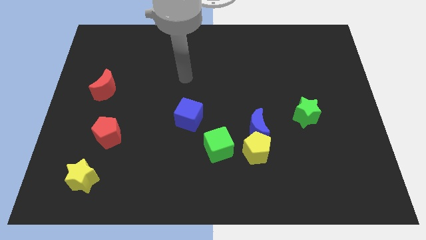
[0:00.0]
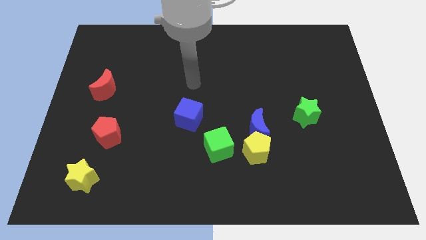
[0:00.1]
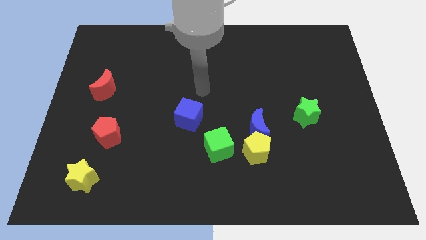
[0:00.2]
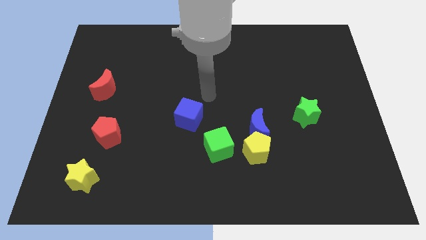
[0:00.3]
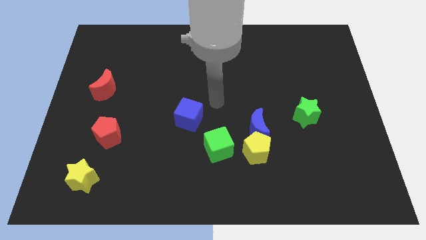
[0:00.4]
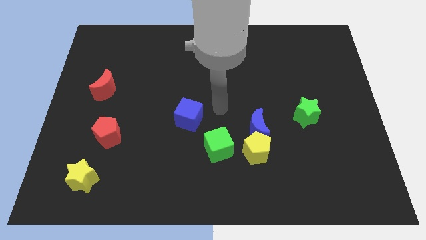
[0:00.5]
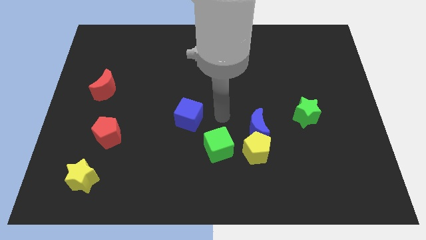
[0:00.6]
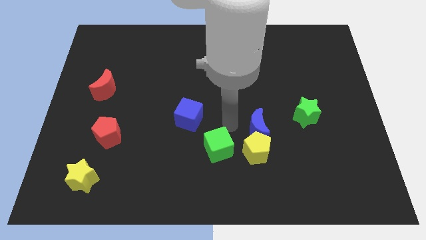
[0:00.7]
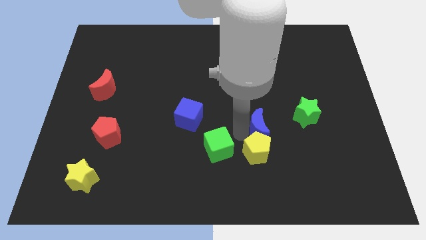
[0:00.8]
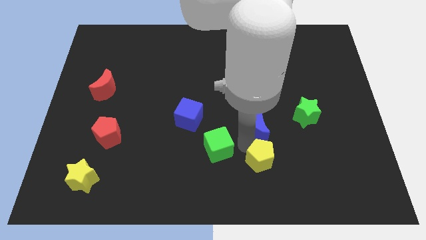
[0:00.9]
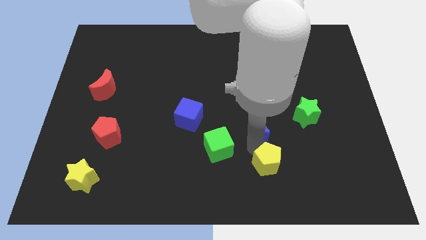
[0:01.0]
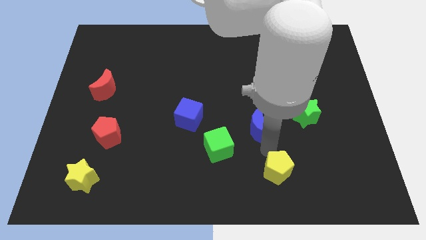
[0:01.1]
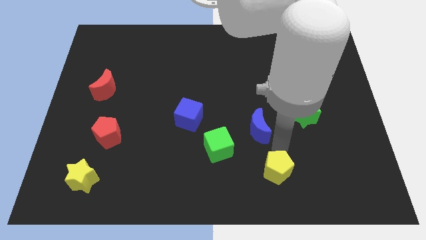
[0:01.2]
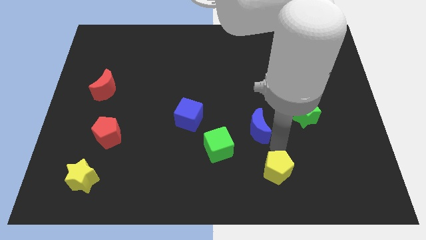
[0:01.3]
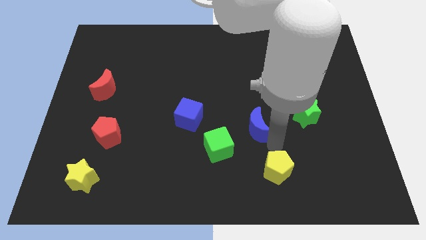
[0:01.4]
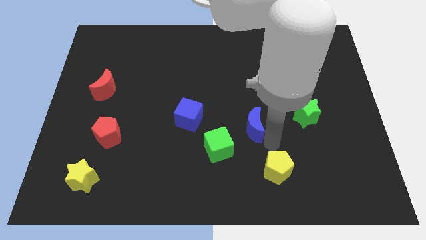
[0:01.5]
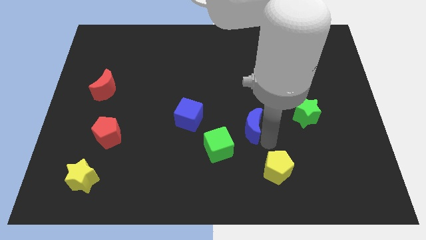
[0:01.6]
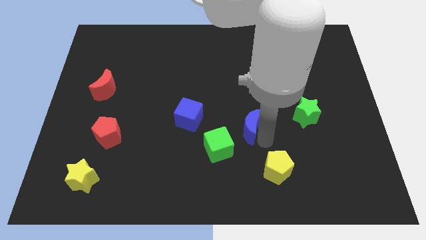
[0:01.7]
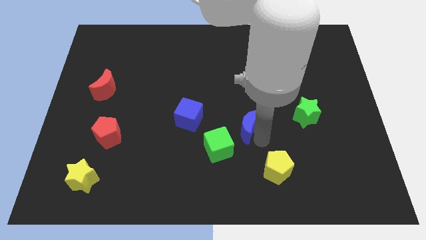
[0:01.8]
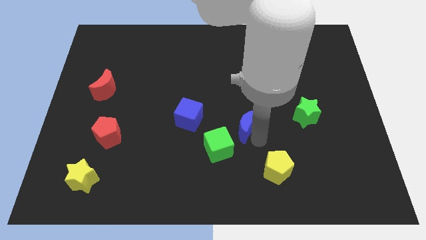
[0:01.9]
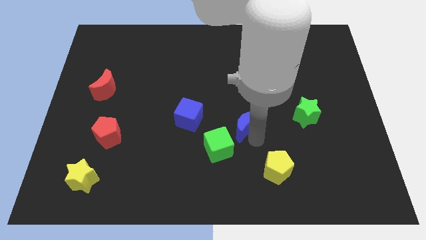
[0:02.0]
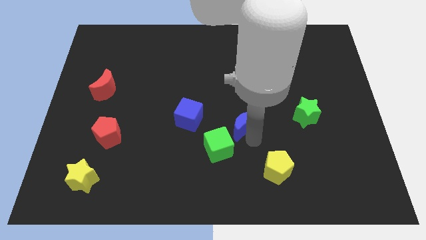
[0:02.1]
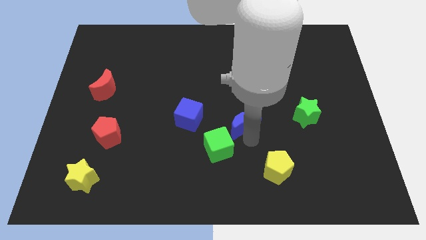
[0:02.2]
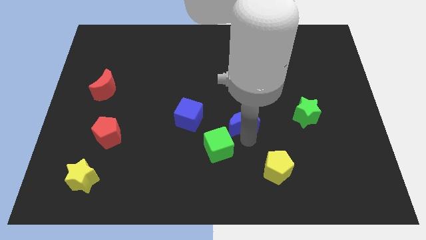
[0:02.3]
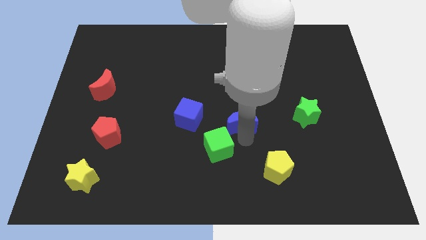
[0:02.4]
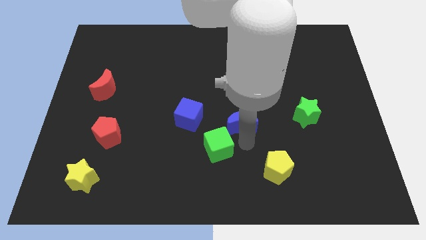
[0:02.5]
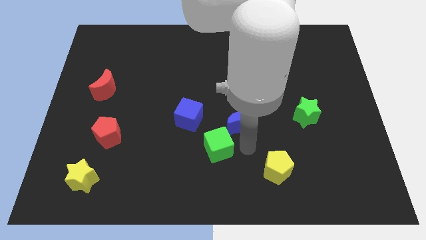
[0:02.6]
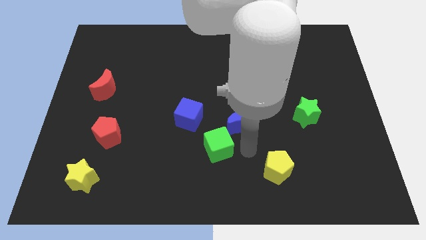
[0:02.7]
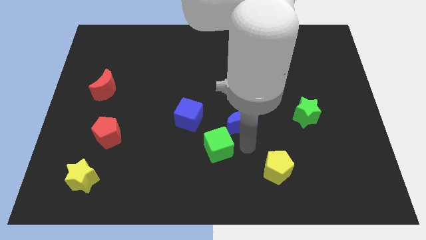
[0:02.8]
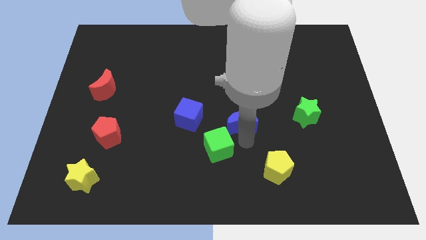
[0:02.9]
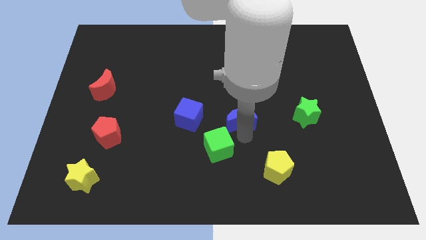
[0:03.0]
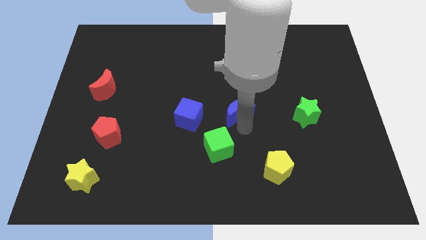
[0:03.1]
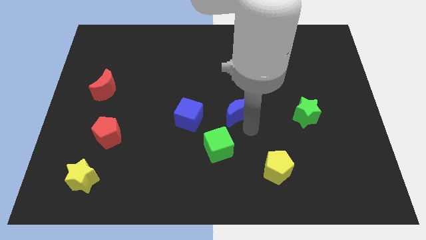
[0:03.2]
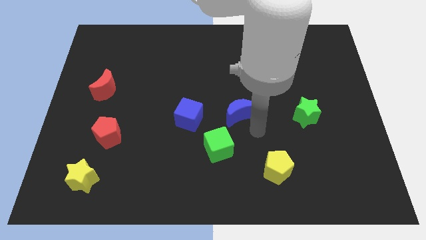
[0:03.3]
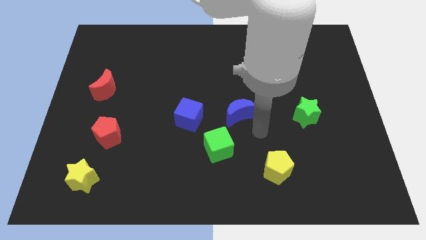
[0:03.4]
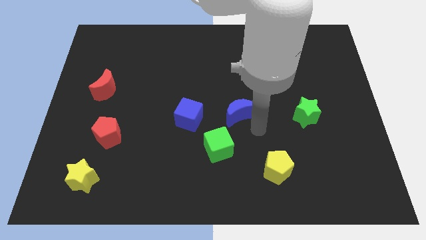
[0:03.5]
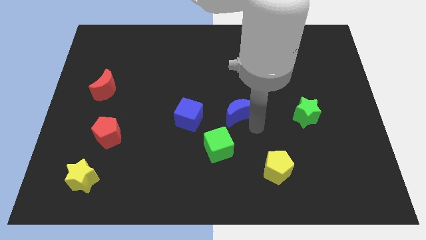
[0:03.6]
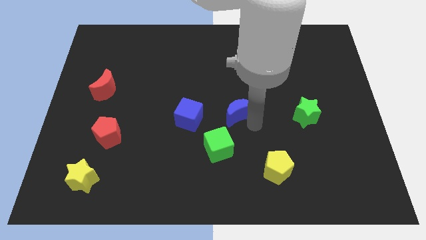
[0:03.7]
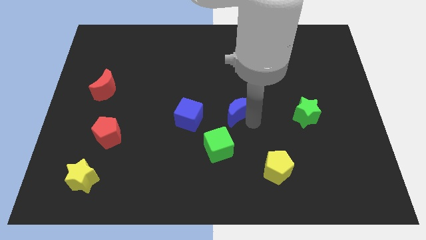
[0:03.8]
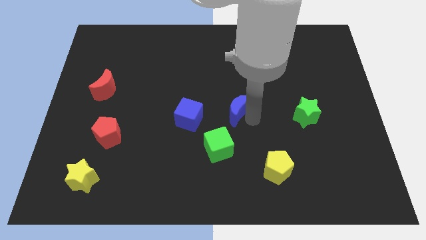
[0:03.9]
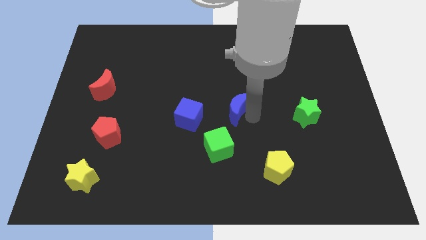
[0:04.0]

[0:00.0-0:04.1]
slide the blue moon upwards and then to the left a bit

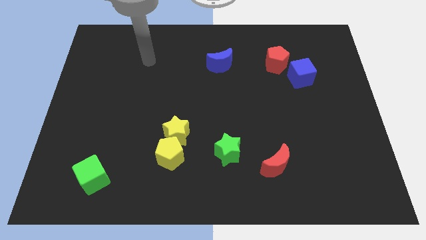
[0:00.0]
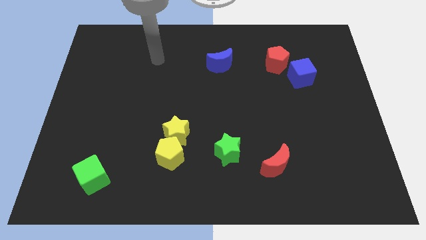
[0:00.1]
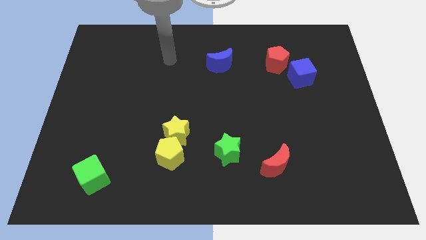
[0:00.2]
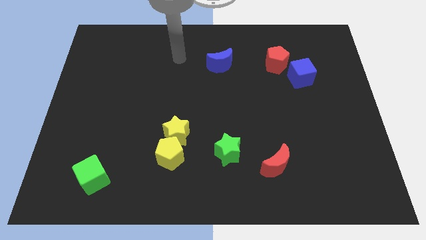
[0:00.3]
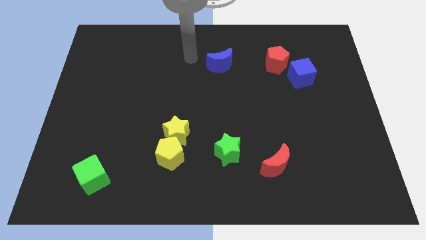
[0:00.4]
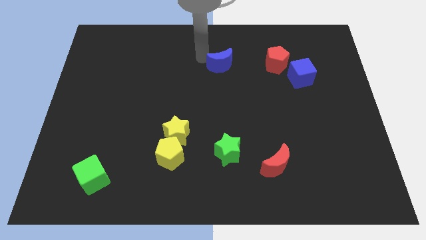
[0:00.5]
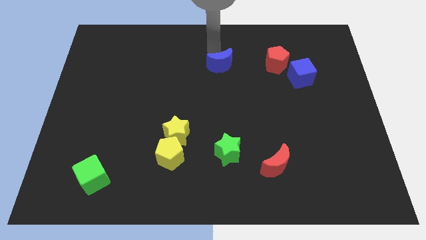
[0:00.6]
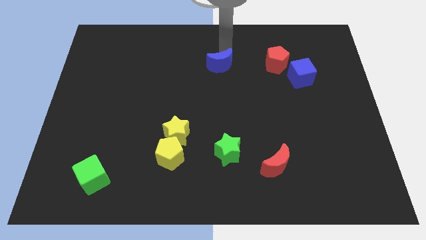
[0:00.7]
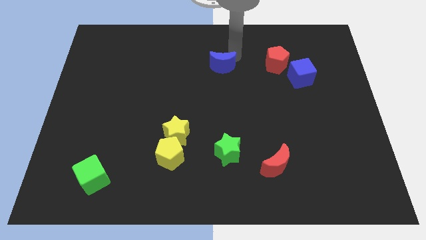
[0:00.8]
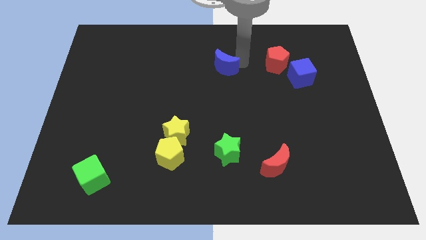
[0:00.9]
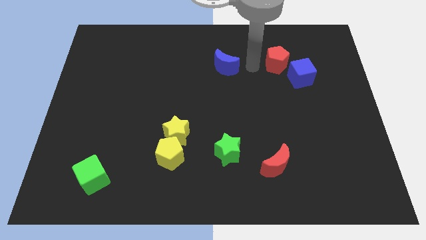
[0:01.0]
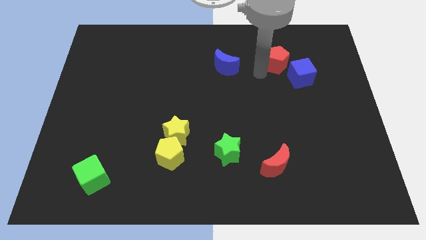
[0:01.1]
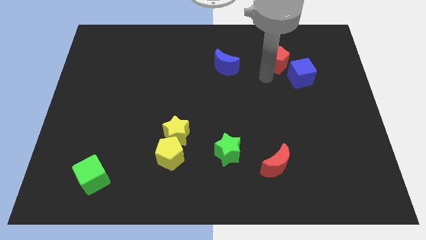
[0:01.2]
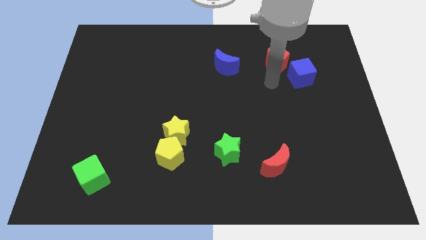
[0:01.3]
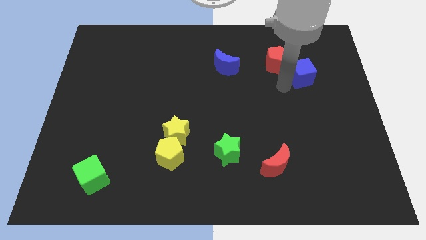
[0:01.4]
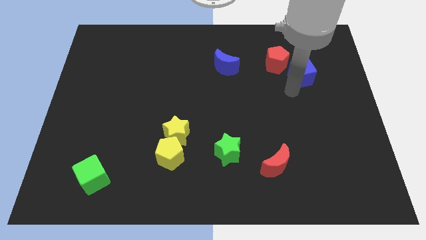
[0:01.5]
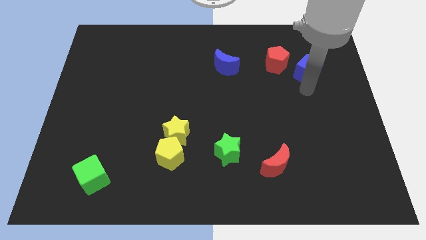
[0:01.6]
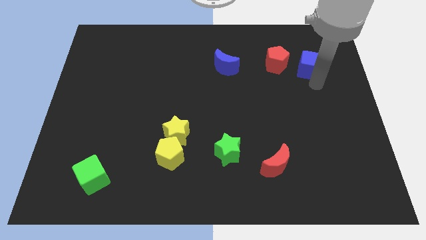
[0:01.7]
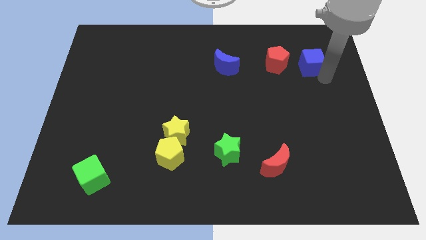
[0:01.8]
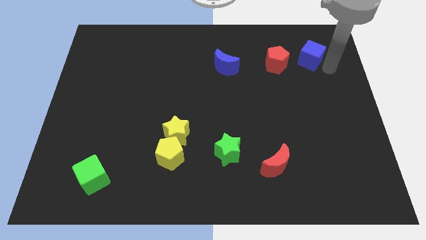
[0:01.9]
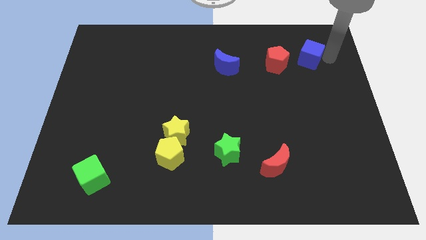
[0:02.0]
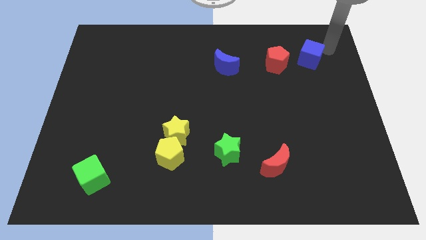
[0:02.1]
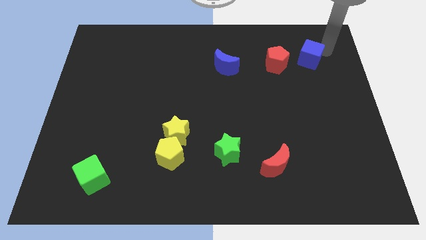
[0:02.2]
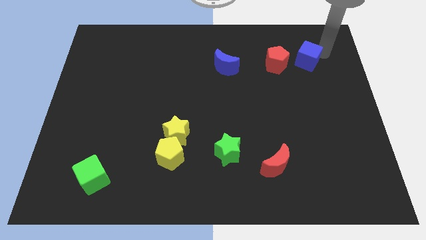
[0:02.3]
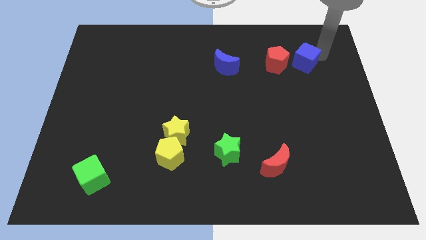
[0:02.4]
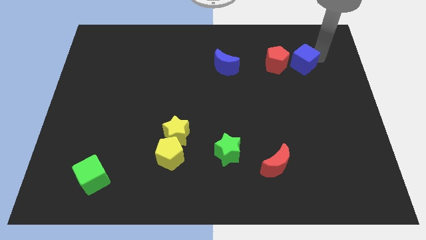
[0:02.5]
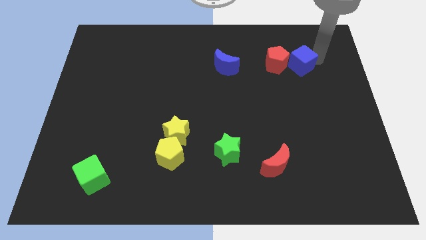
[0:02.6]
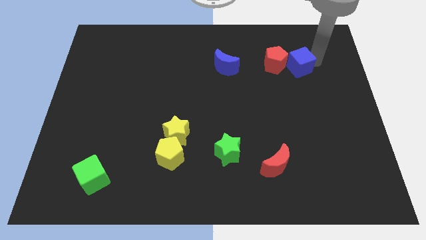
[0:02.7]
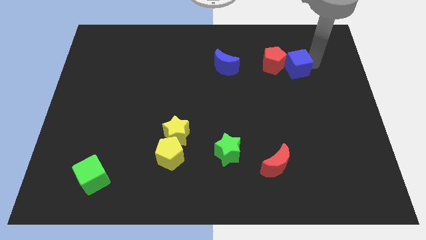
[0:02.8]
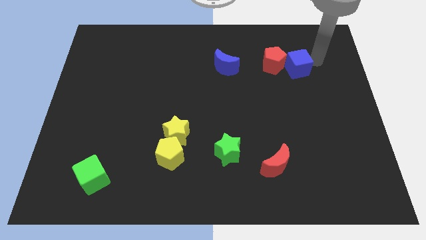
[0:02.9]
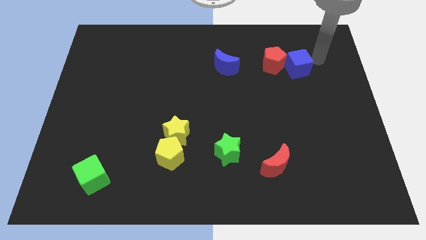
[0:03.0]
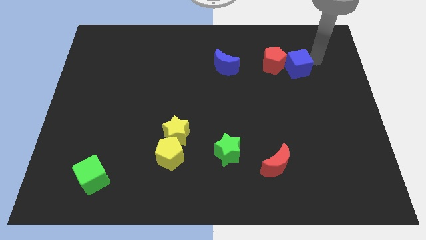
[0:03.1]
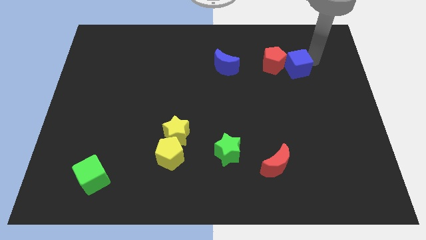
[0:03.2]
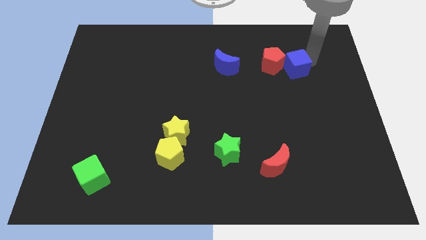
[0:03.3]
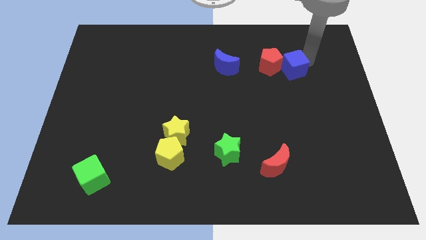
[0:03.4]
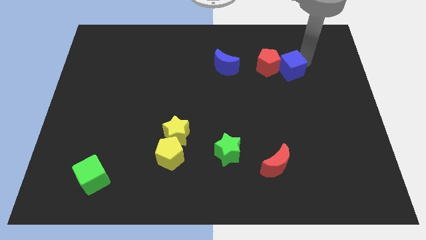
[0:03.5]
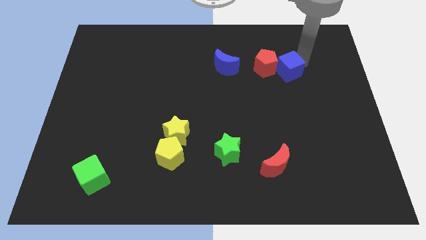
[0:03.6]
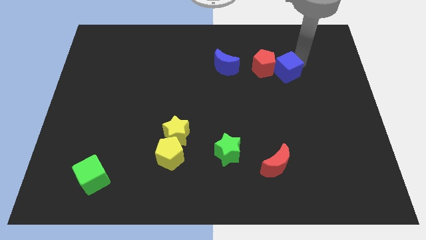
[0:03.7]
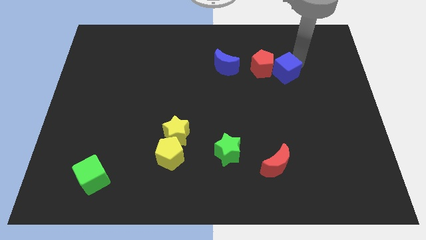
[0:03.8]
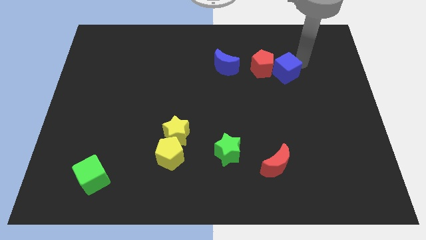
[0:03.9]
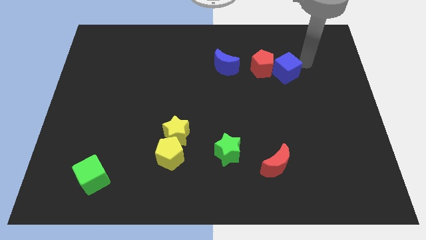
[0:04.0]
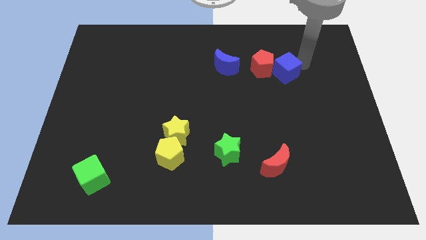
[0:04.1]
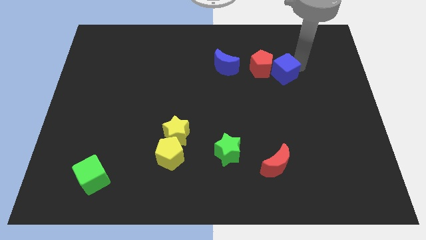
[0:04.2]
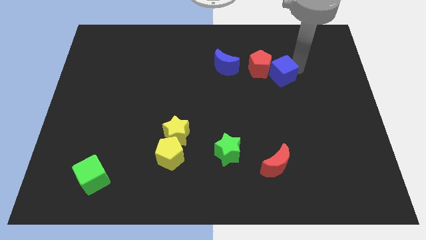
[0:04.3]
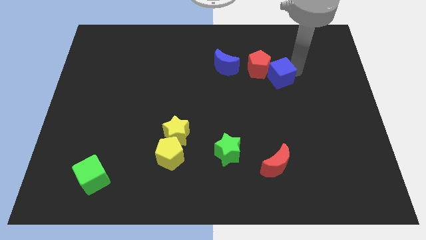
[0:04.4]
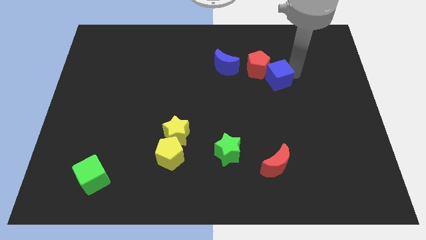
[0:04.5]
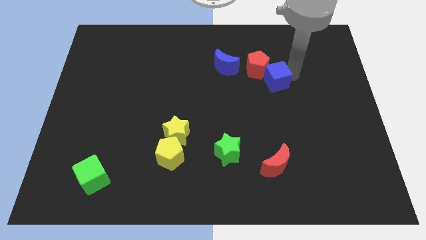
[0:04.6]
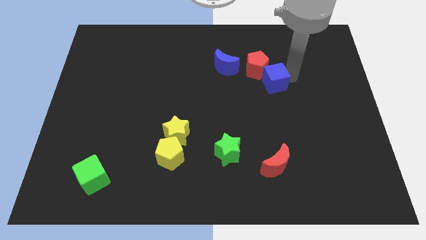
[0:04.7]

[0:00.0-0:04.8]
push the blue cube left somewhat
